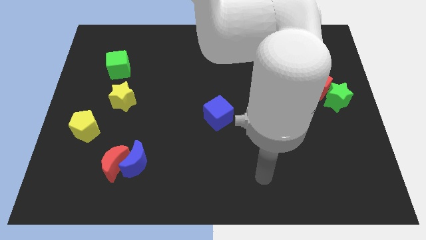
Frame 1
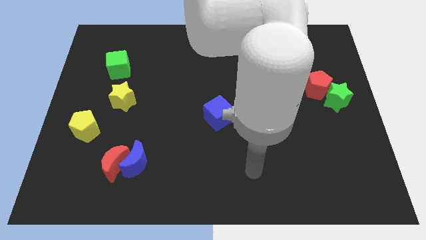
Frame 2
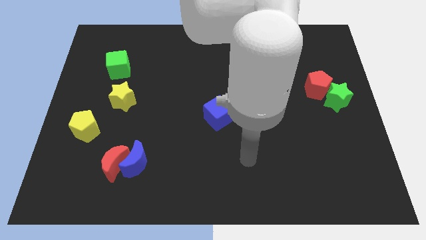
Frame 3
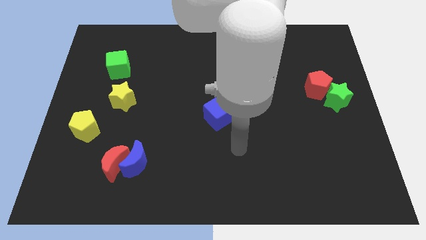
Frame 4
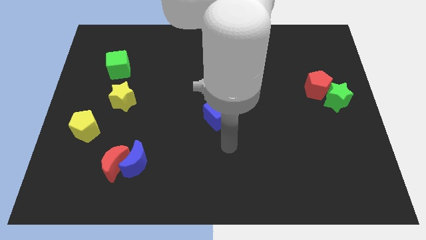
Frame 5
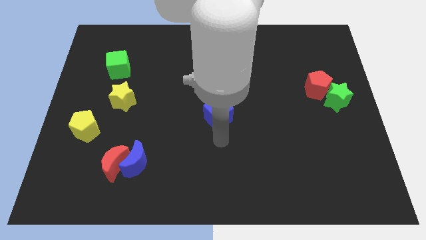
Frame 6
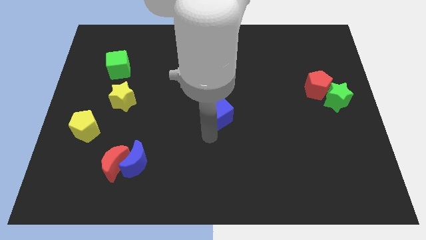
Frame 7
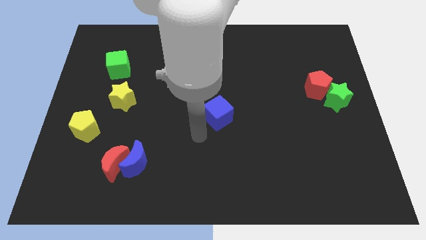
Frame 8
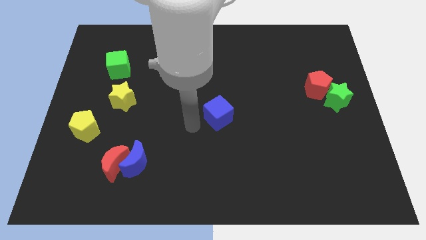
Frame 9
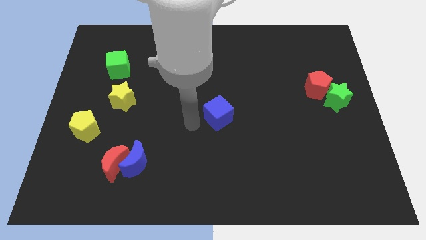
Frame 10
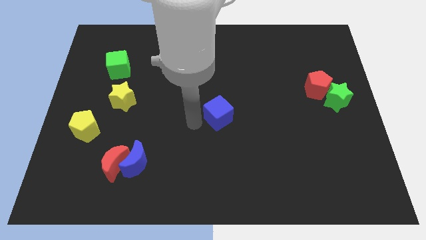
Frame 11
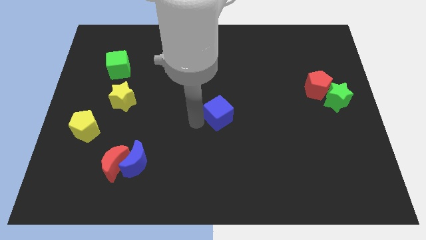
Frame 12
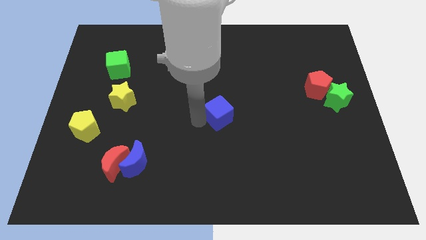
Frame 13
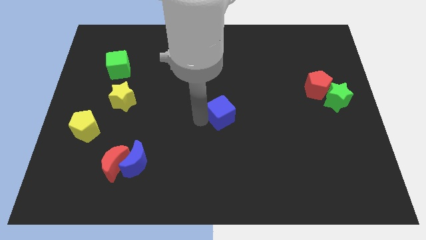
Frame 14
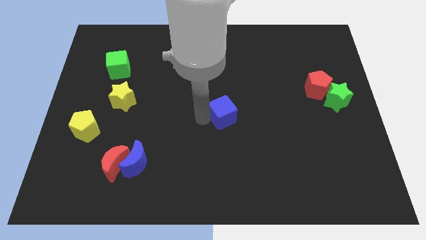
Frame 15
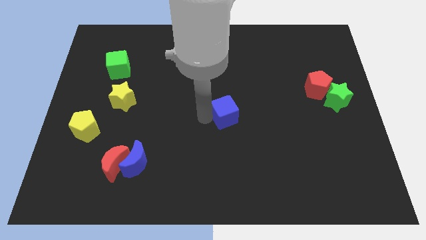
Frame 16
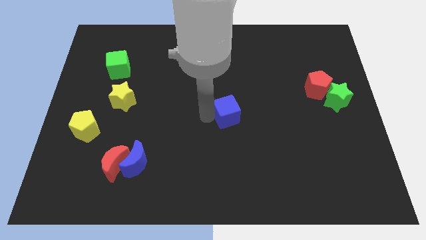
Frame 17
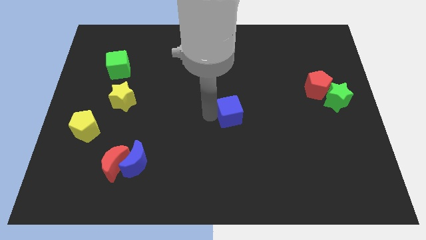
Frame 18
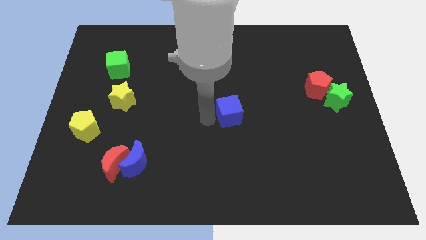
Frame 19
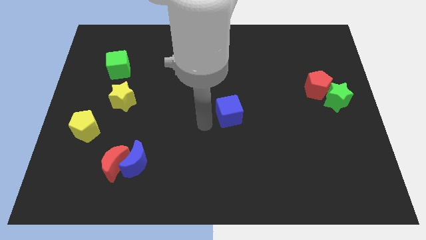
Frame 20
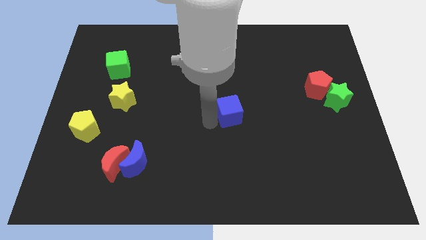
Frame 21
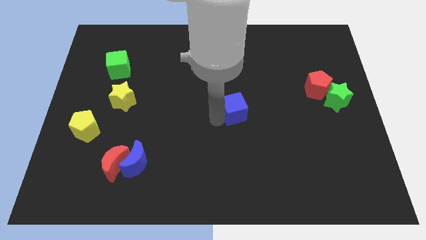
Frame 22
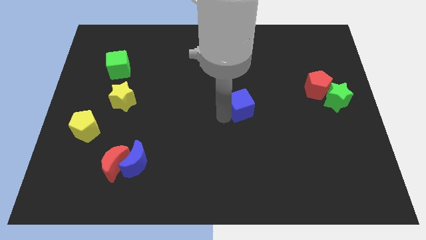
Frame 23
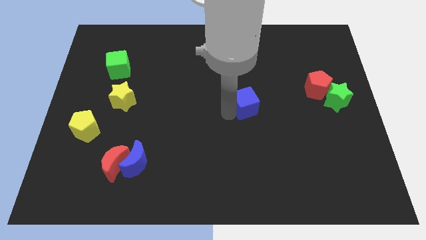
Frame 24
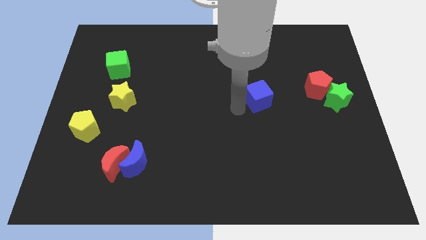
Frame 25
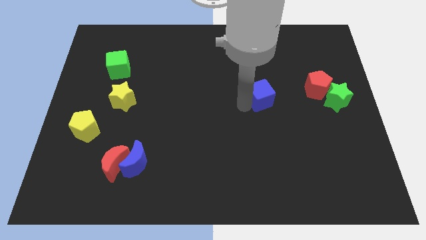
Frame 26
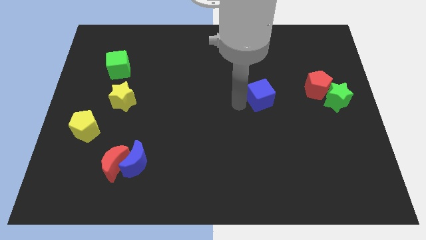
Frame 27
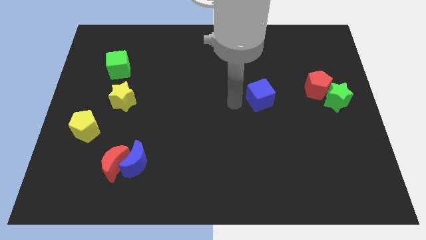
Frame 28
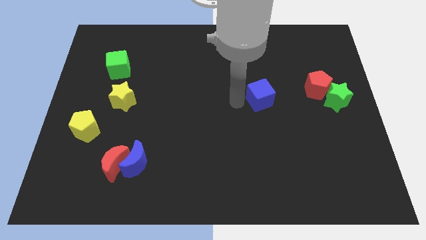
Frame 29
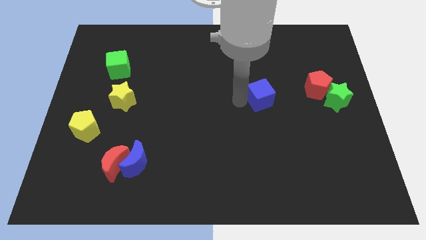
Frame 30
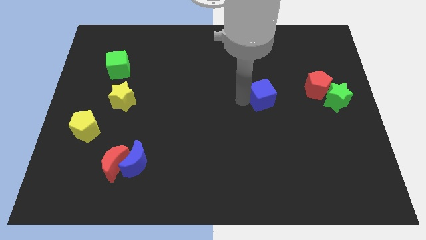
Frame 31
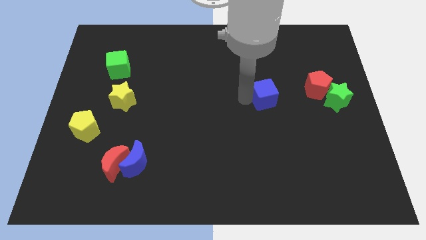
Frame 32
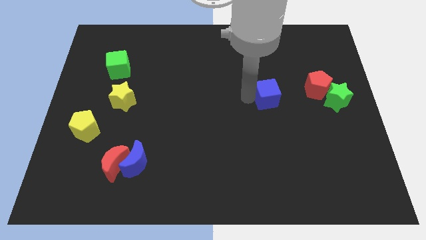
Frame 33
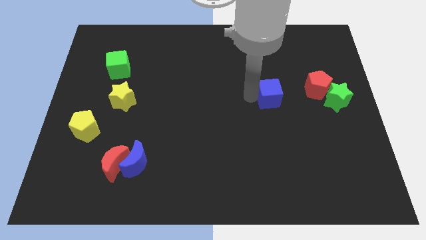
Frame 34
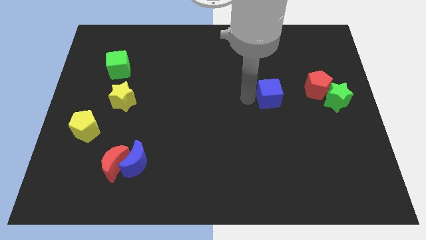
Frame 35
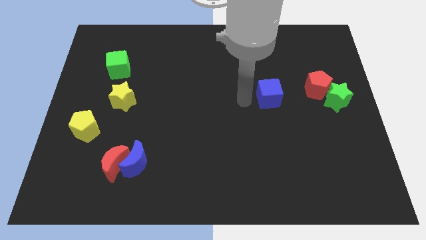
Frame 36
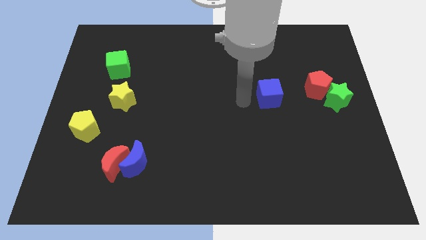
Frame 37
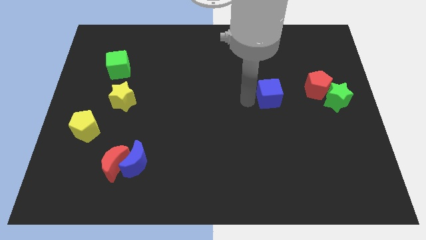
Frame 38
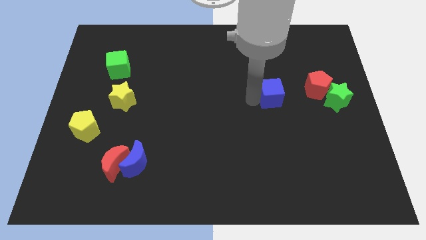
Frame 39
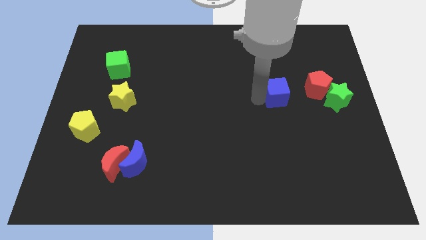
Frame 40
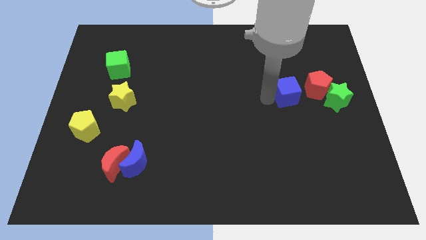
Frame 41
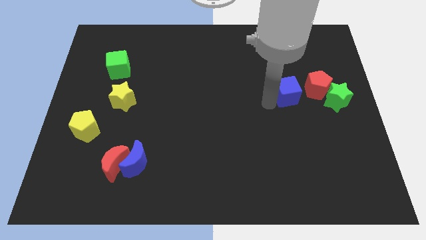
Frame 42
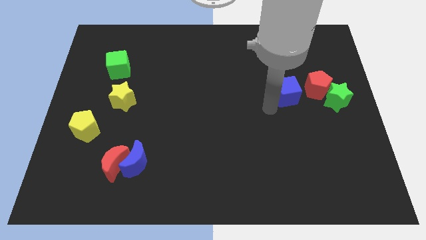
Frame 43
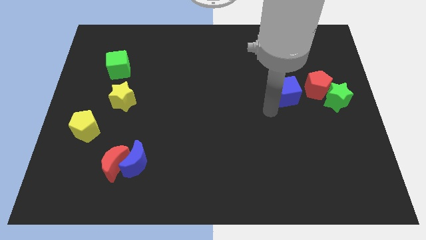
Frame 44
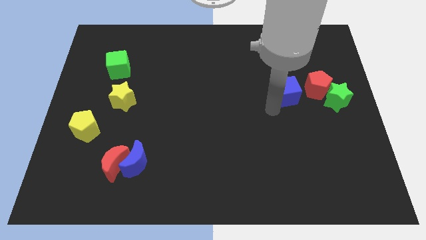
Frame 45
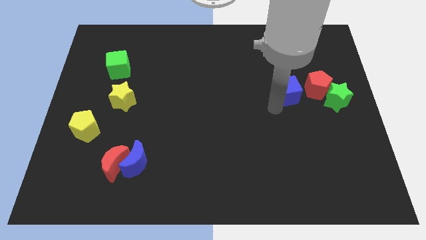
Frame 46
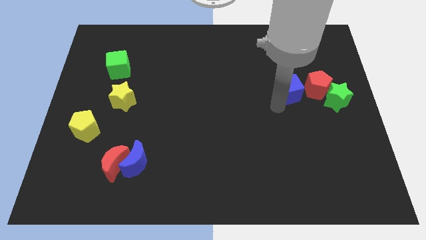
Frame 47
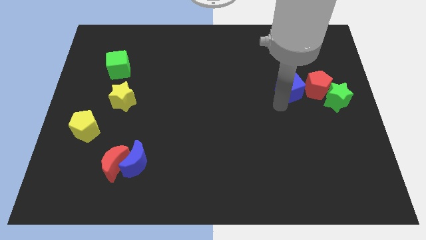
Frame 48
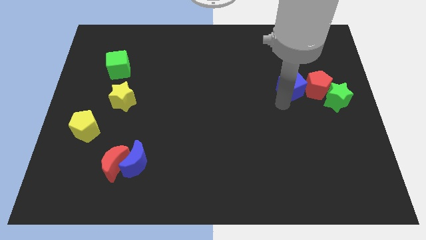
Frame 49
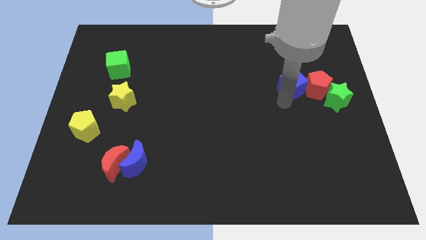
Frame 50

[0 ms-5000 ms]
push the blue cube to the top left side of the green star

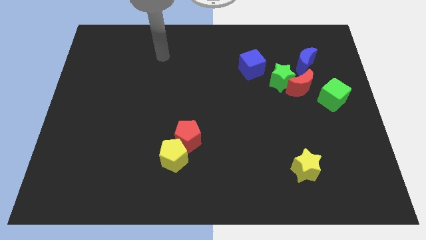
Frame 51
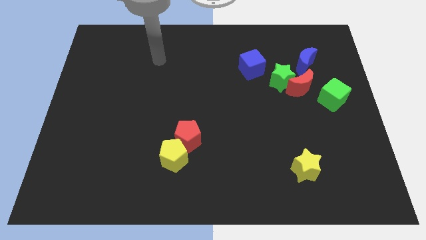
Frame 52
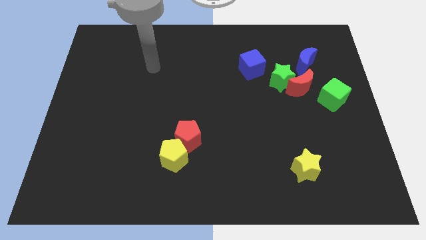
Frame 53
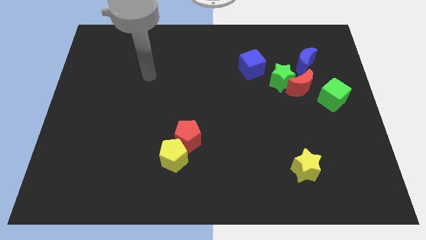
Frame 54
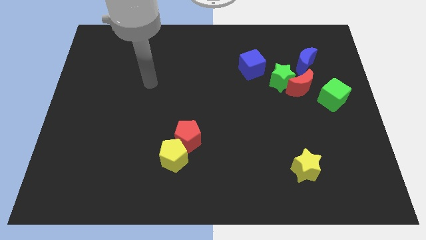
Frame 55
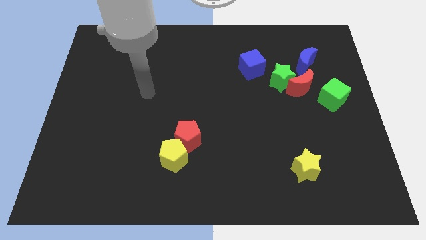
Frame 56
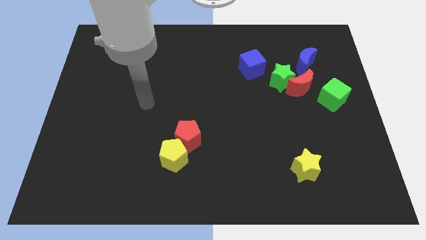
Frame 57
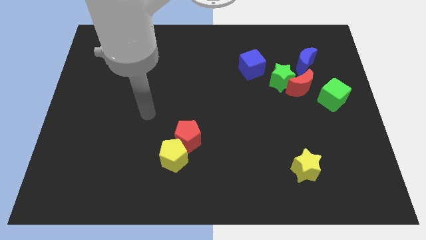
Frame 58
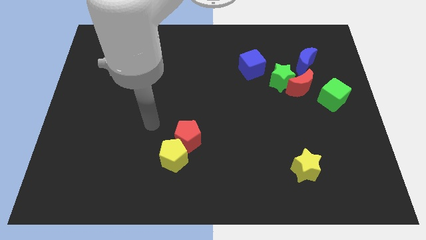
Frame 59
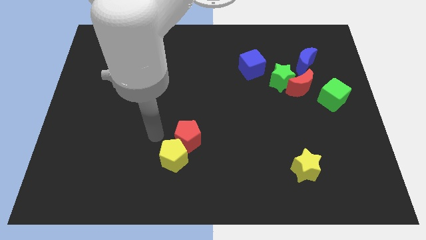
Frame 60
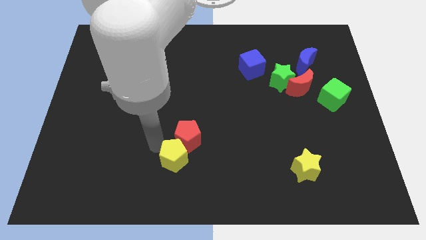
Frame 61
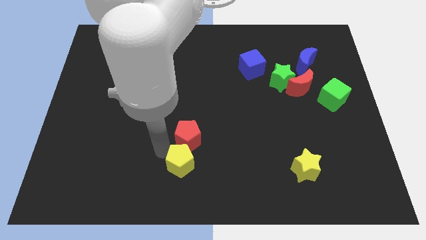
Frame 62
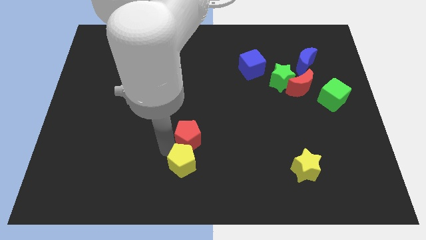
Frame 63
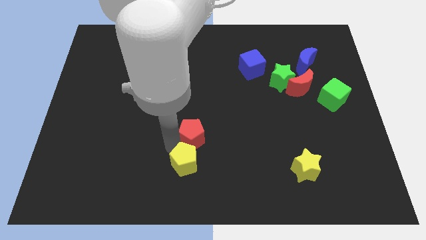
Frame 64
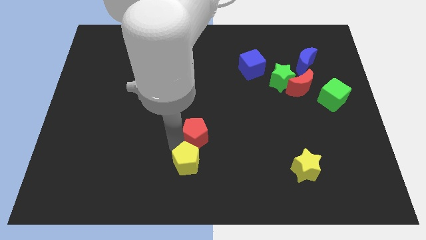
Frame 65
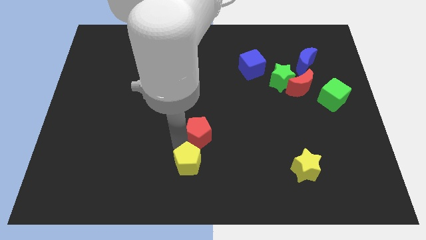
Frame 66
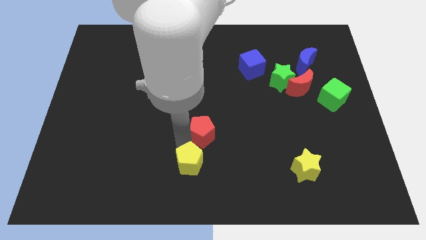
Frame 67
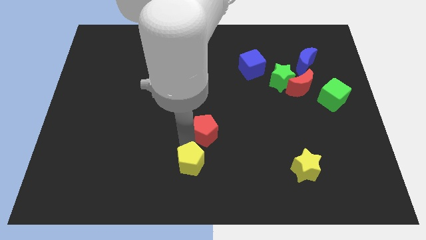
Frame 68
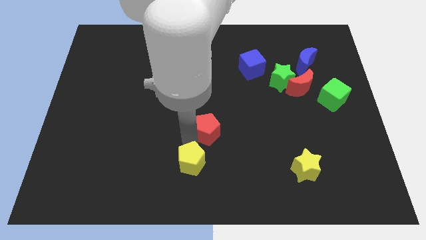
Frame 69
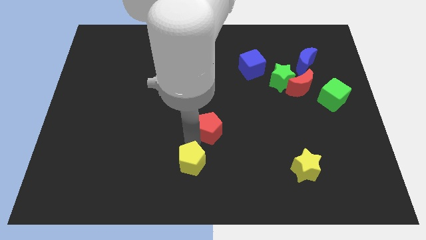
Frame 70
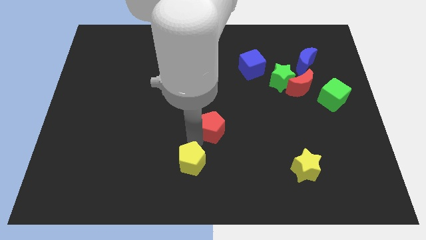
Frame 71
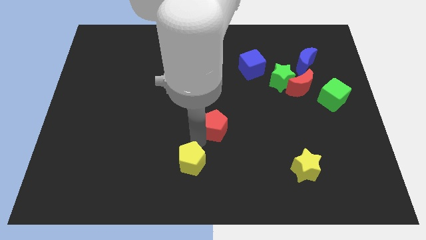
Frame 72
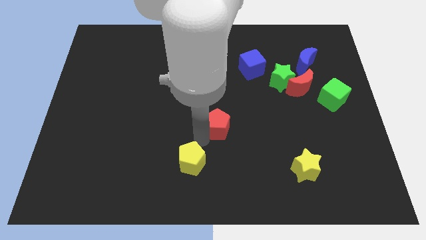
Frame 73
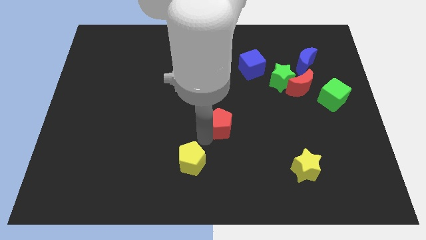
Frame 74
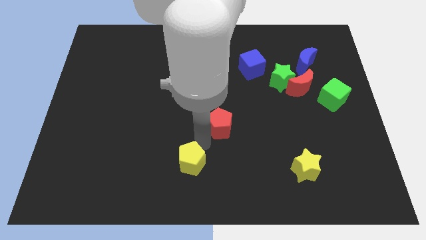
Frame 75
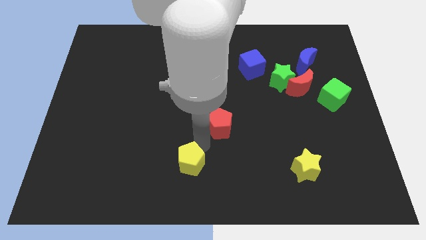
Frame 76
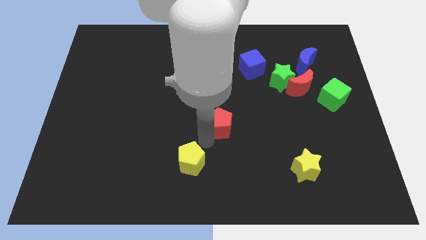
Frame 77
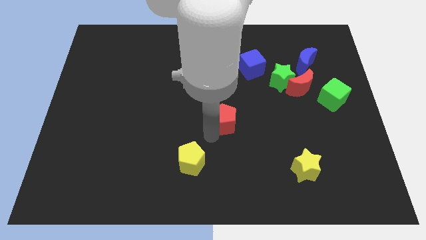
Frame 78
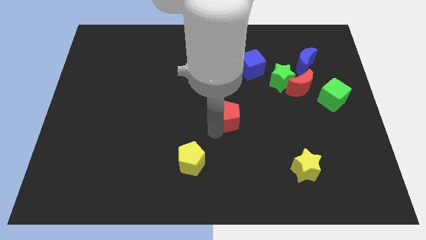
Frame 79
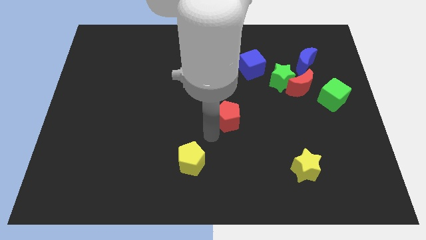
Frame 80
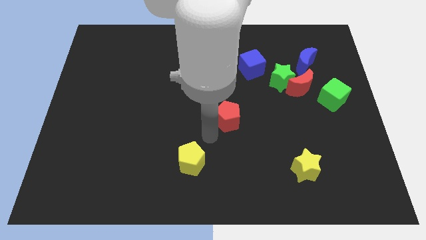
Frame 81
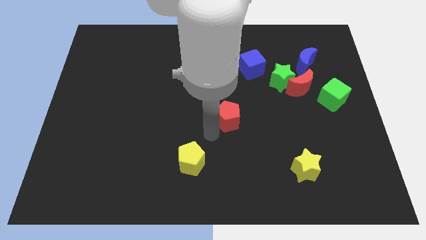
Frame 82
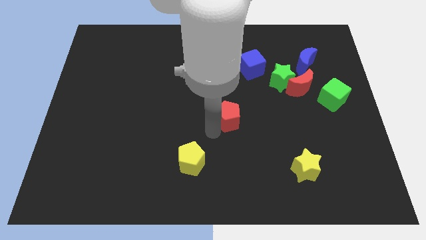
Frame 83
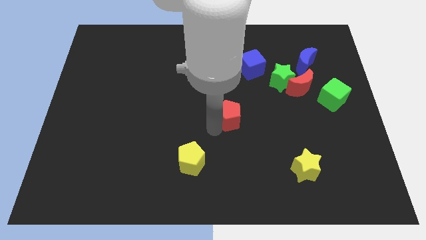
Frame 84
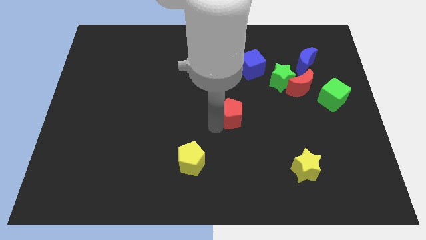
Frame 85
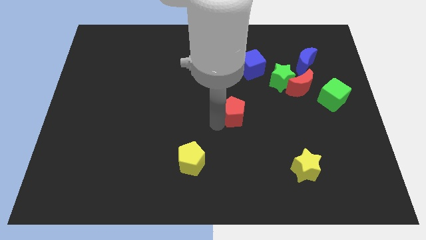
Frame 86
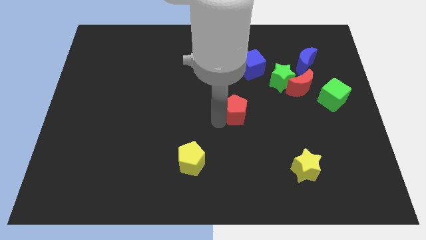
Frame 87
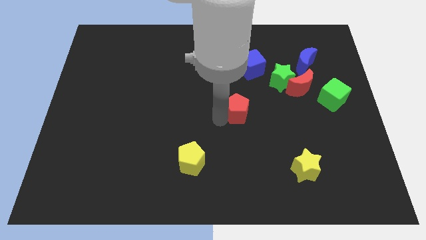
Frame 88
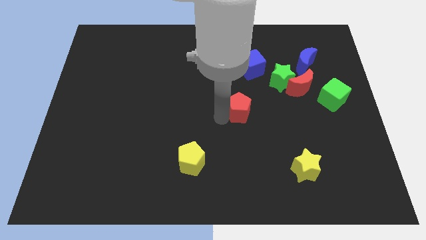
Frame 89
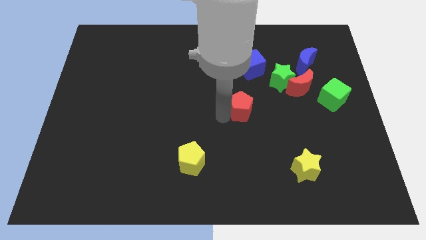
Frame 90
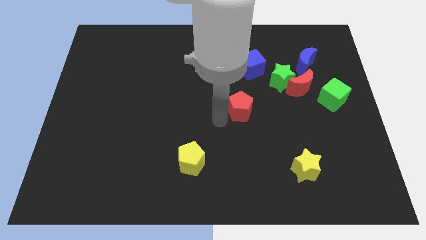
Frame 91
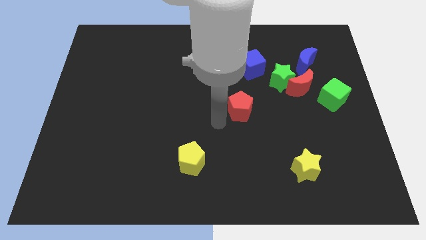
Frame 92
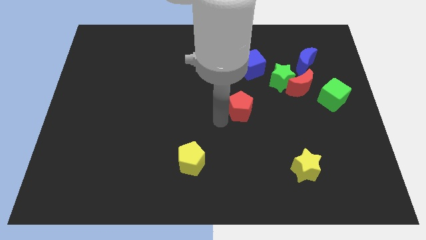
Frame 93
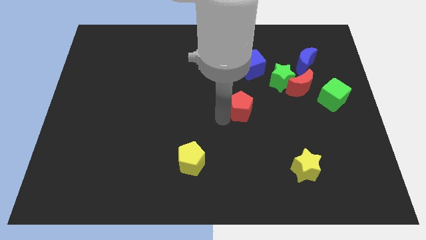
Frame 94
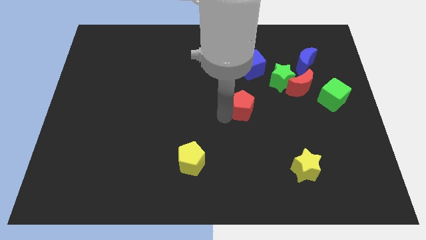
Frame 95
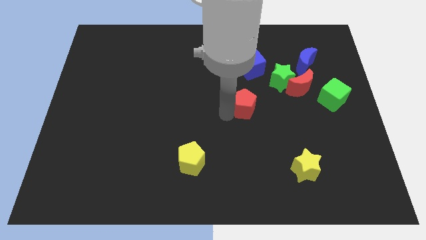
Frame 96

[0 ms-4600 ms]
move the red pentagon to the bottom left of the green star
